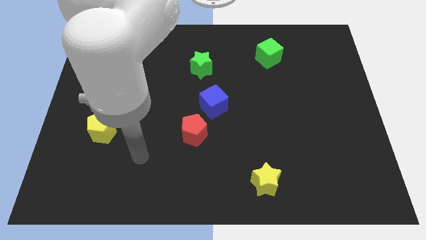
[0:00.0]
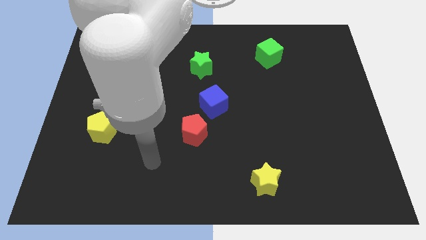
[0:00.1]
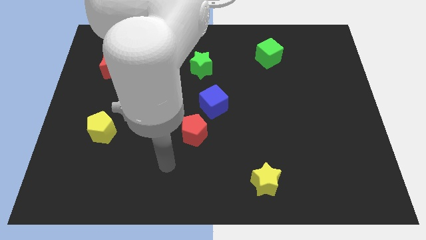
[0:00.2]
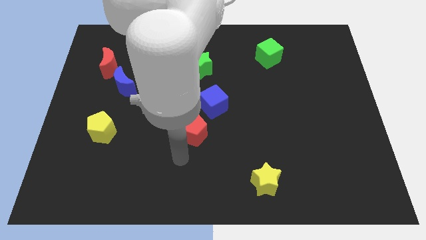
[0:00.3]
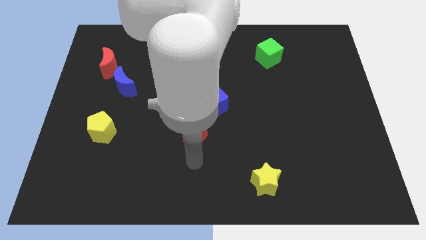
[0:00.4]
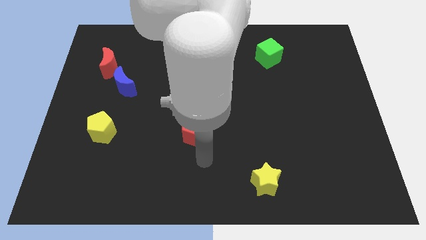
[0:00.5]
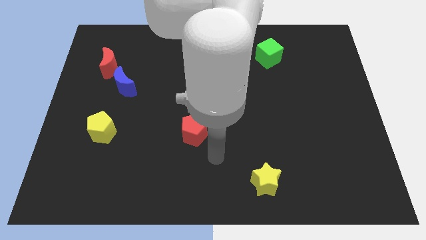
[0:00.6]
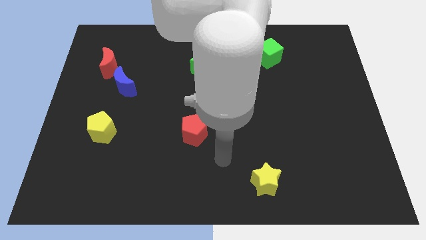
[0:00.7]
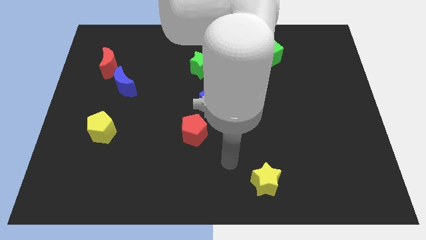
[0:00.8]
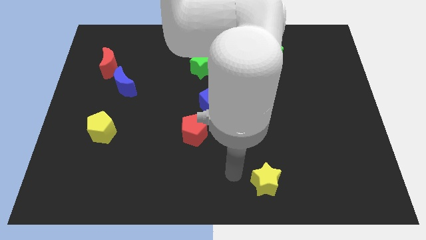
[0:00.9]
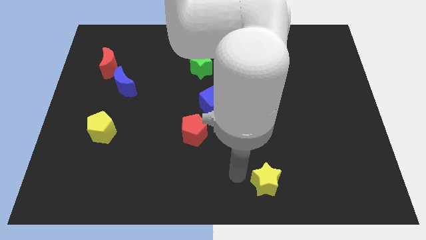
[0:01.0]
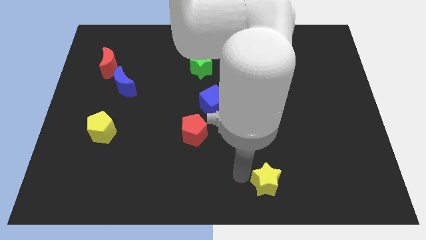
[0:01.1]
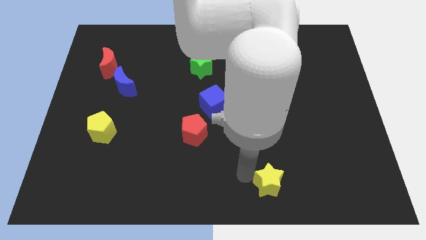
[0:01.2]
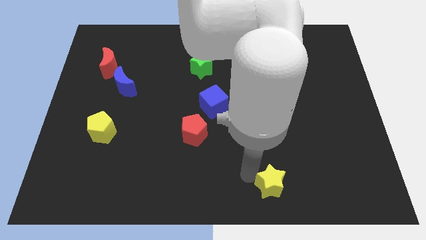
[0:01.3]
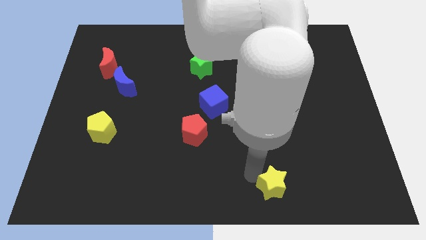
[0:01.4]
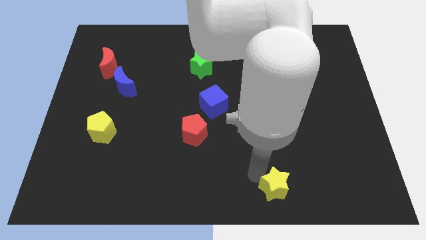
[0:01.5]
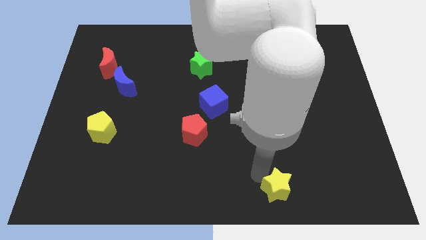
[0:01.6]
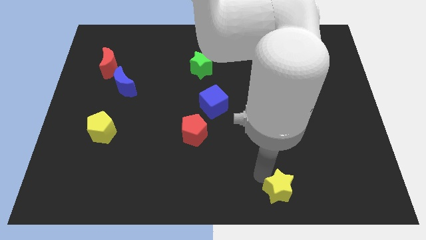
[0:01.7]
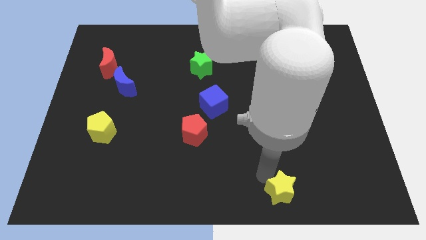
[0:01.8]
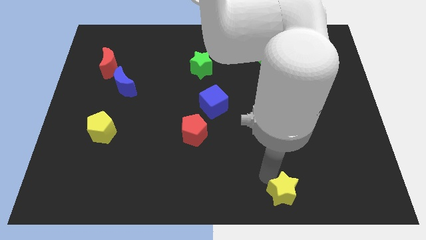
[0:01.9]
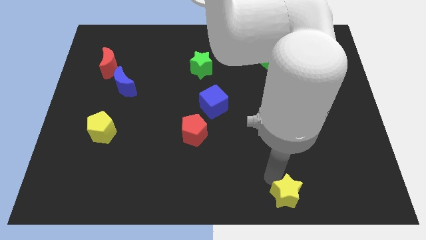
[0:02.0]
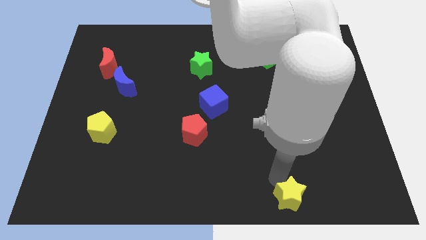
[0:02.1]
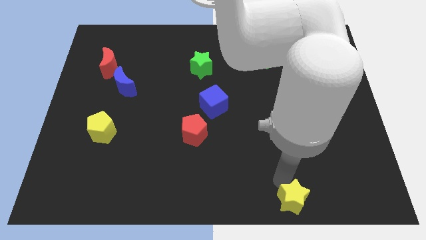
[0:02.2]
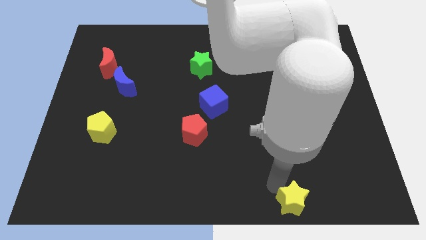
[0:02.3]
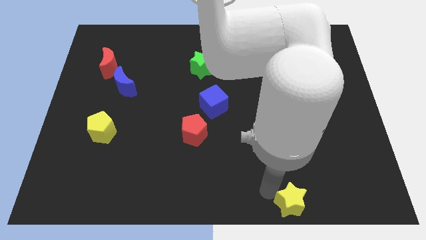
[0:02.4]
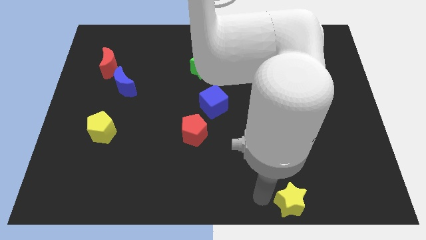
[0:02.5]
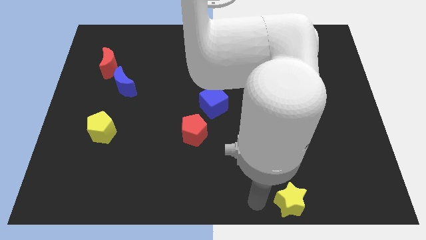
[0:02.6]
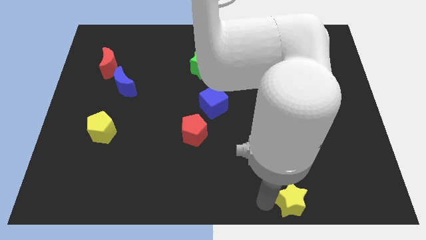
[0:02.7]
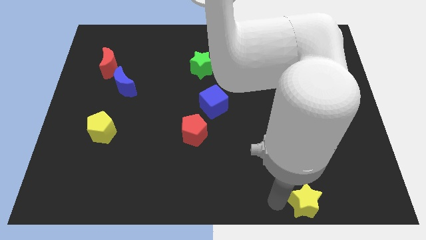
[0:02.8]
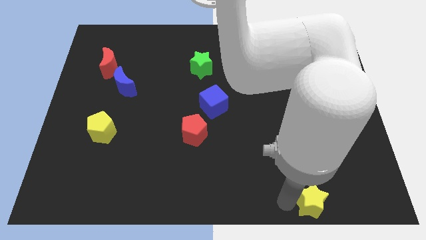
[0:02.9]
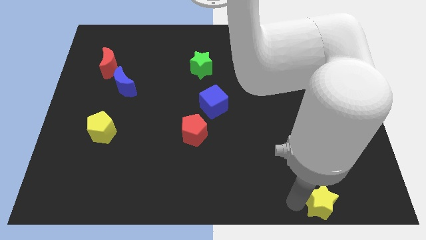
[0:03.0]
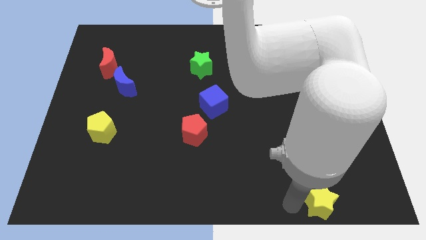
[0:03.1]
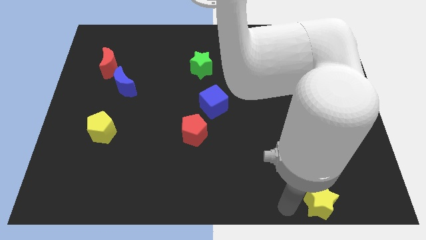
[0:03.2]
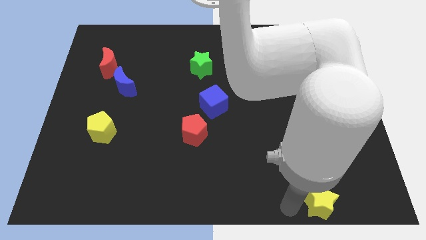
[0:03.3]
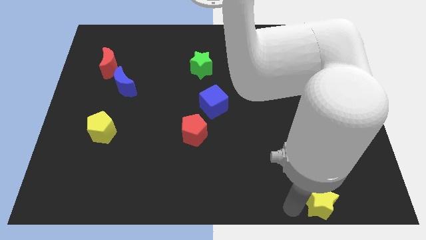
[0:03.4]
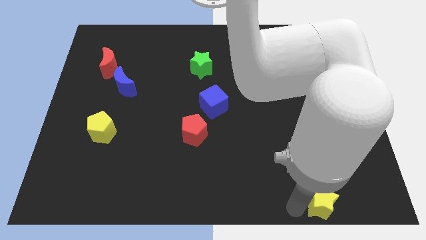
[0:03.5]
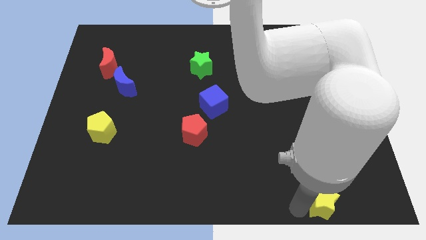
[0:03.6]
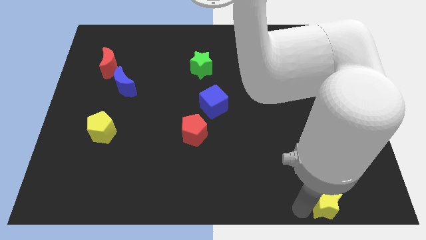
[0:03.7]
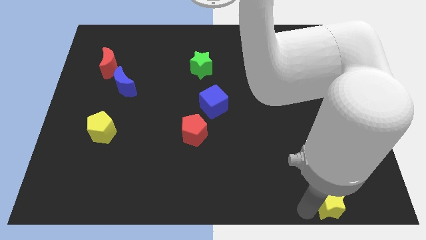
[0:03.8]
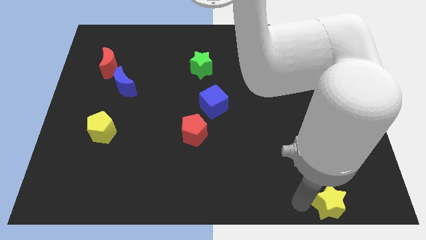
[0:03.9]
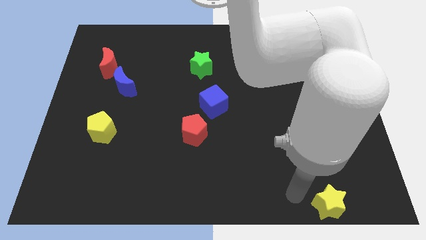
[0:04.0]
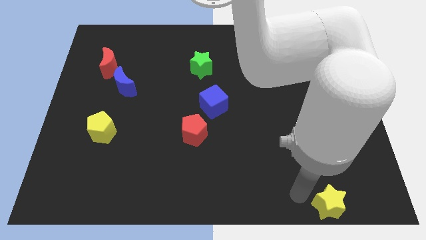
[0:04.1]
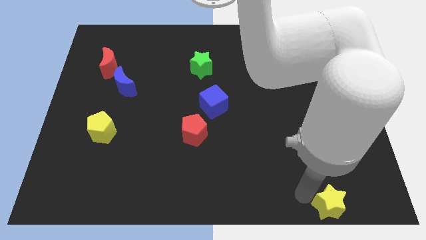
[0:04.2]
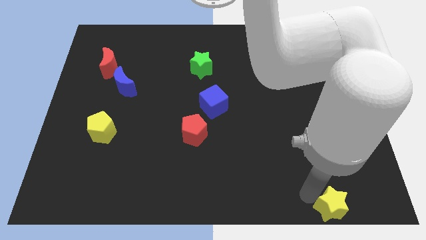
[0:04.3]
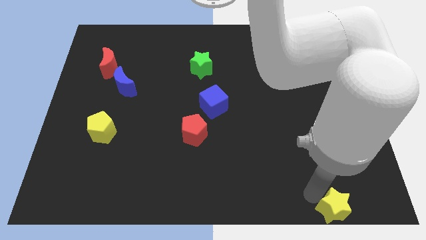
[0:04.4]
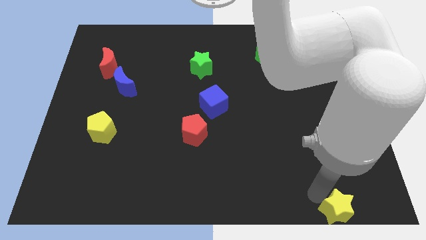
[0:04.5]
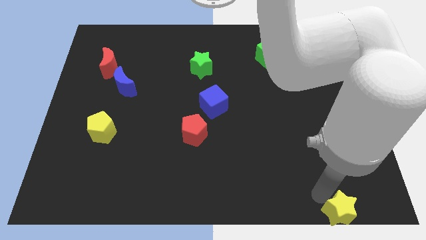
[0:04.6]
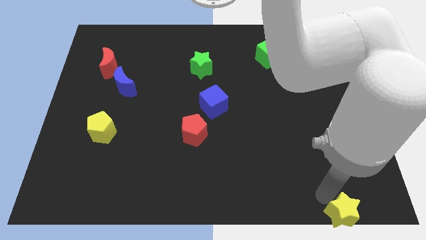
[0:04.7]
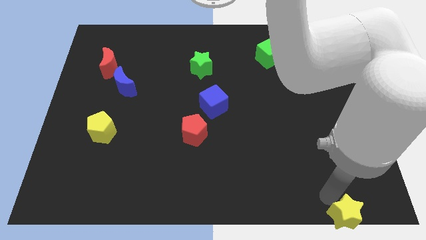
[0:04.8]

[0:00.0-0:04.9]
put the yellow star to the bottom right of the board

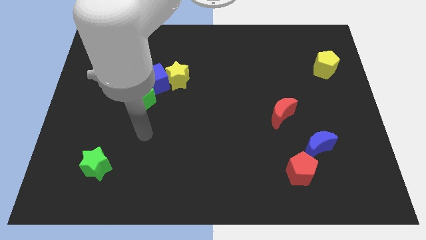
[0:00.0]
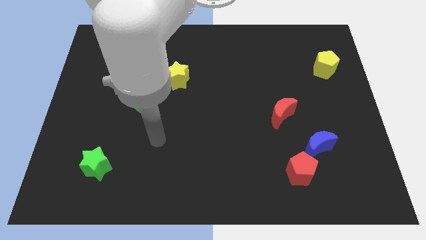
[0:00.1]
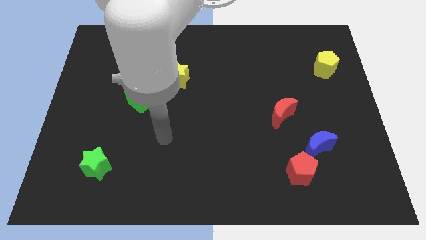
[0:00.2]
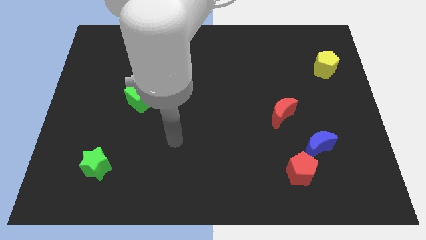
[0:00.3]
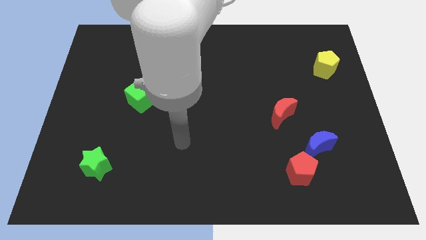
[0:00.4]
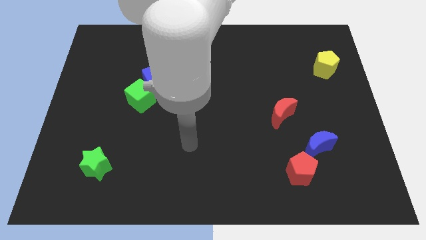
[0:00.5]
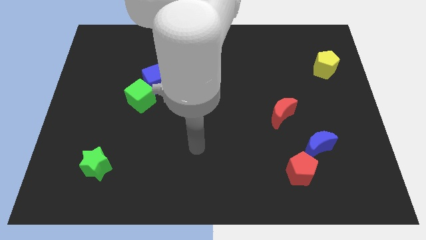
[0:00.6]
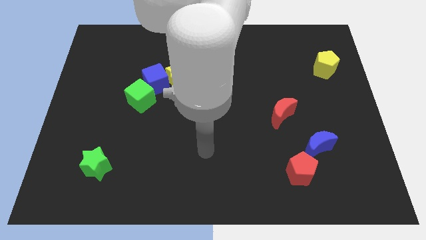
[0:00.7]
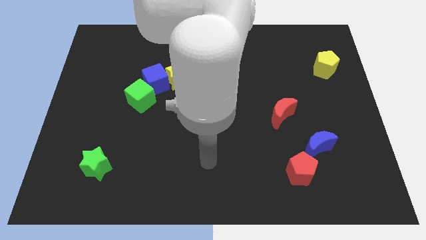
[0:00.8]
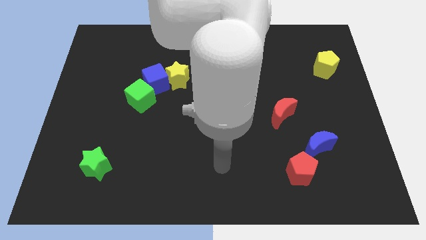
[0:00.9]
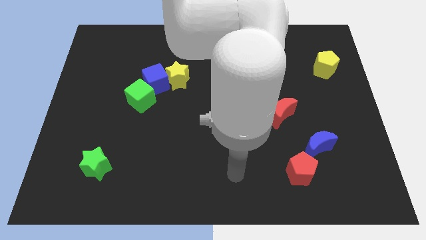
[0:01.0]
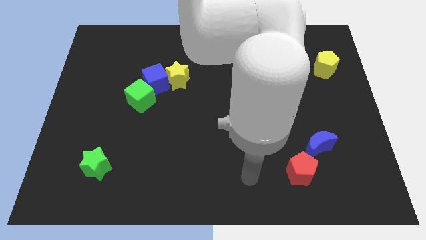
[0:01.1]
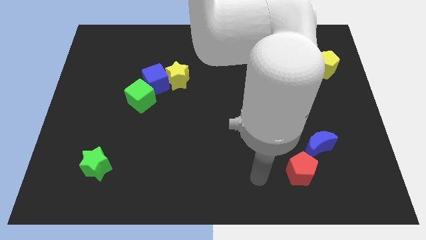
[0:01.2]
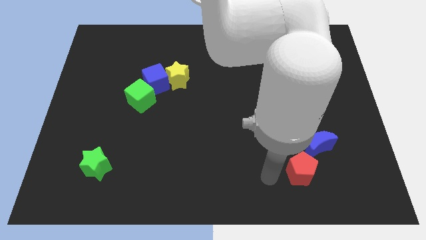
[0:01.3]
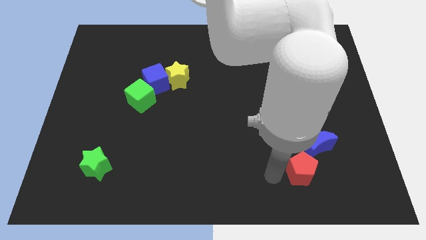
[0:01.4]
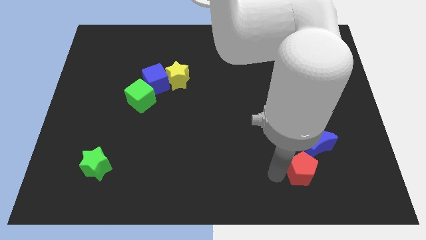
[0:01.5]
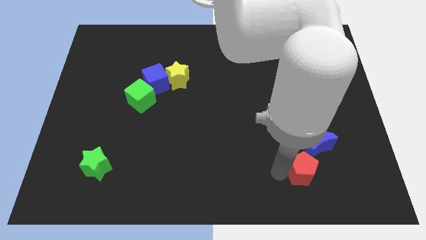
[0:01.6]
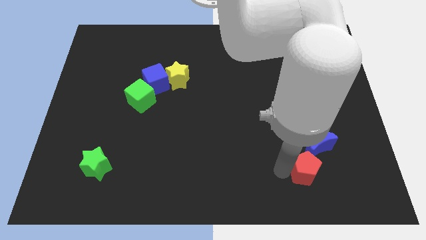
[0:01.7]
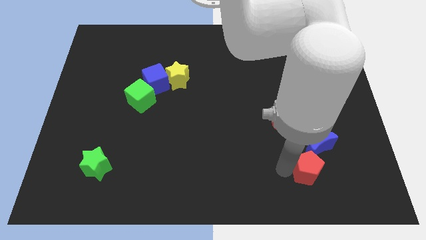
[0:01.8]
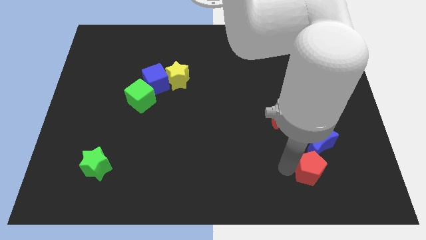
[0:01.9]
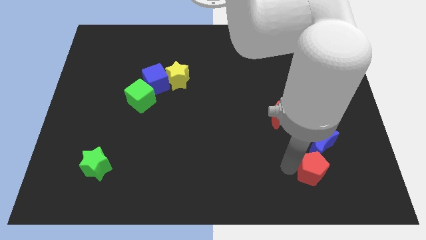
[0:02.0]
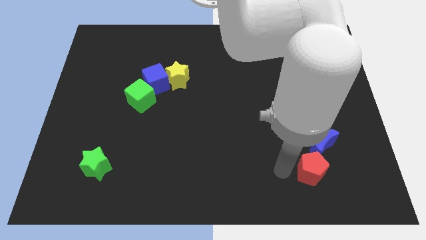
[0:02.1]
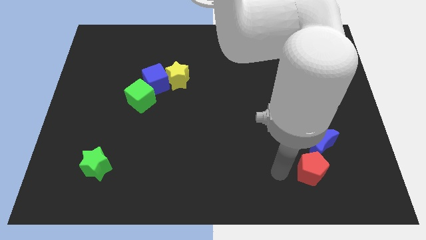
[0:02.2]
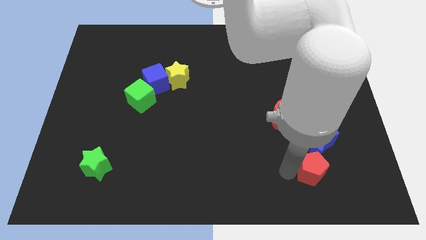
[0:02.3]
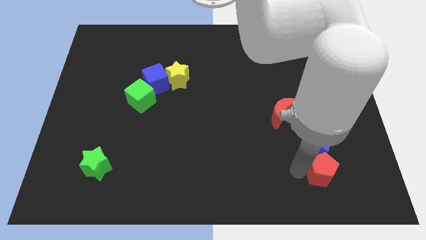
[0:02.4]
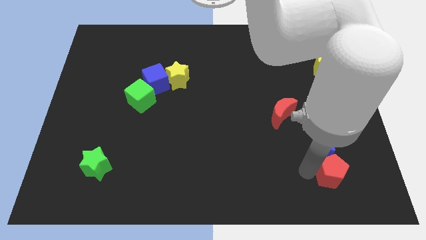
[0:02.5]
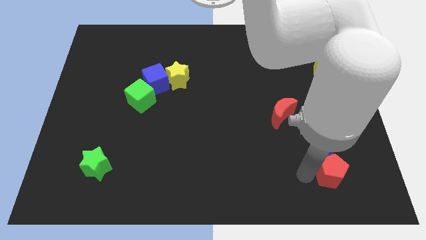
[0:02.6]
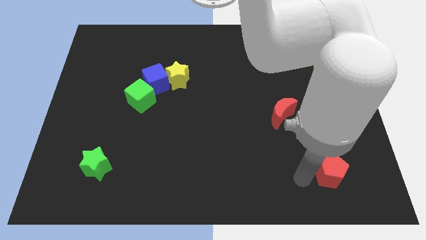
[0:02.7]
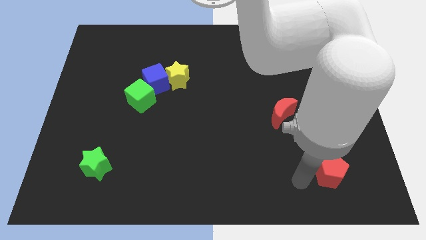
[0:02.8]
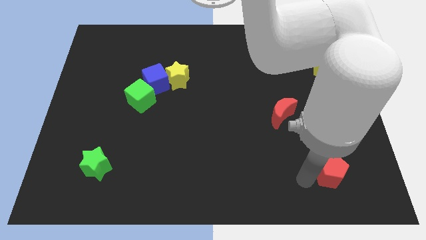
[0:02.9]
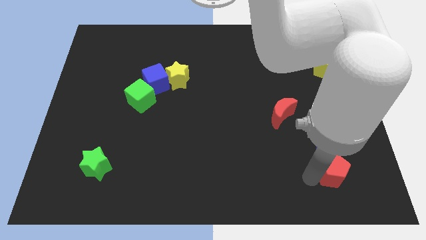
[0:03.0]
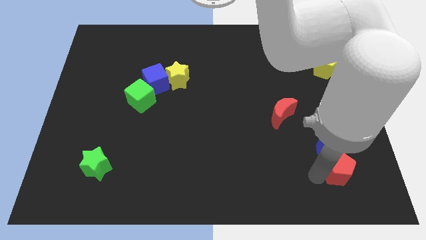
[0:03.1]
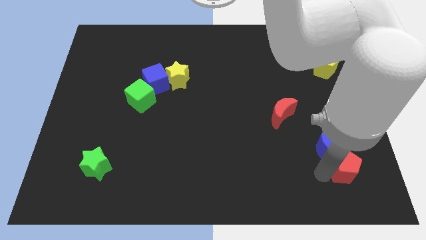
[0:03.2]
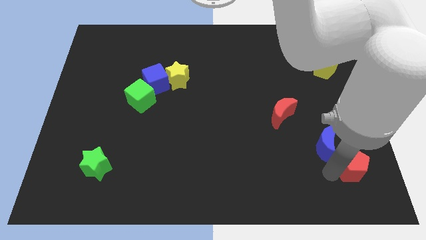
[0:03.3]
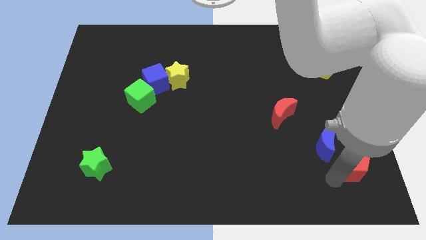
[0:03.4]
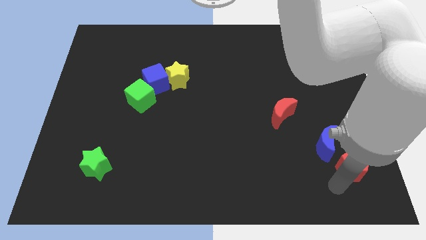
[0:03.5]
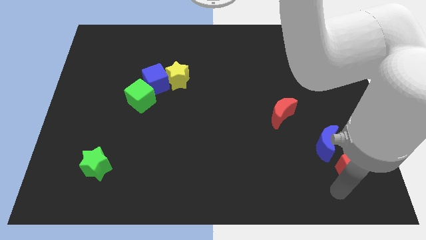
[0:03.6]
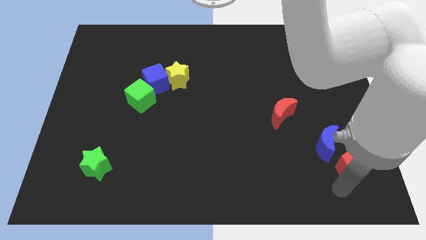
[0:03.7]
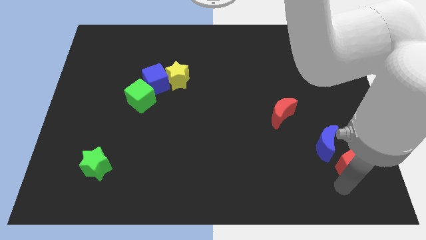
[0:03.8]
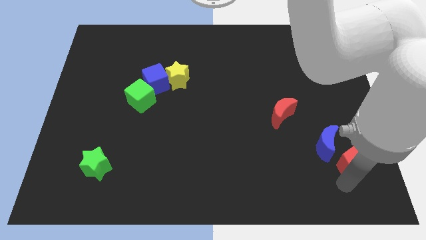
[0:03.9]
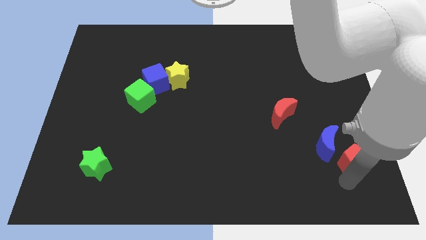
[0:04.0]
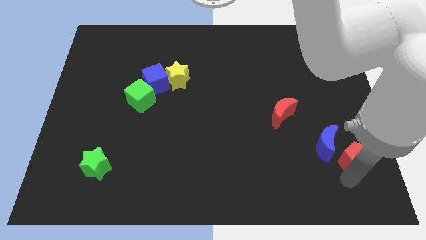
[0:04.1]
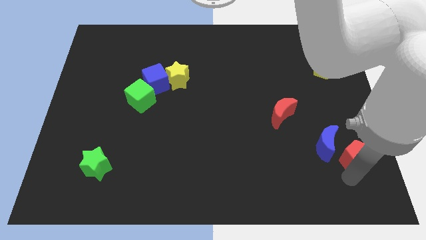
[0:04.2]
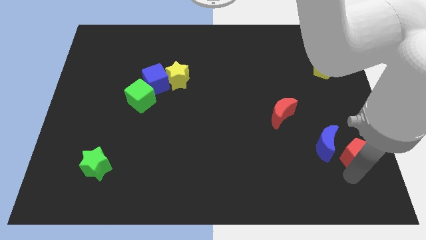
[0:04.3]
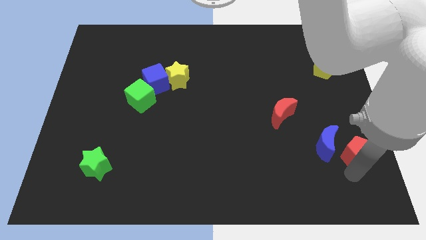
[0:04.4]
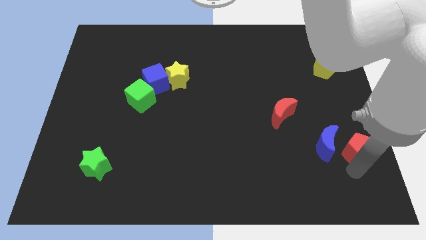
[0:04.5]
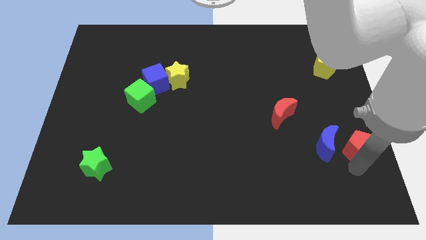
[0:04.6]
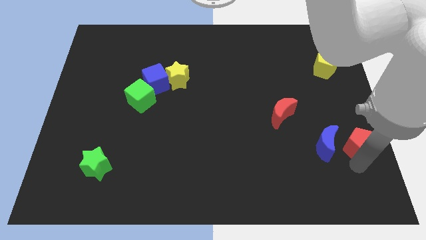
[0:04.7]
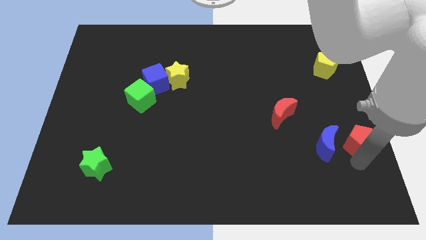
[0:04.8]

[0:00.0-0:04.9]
push the red pentagon to the center right
